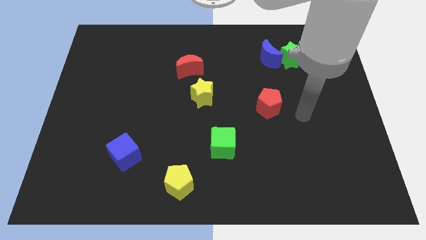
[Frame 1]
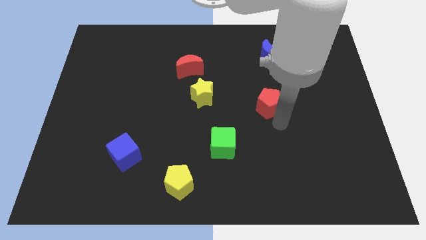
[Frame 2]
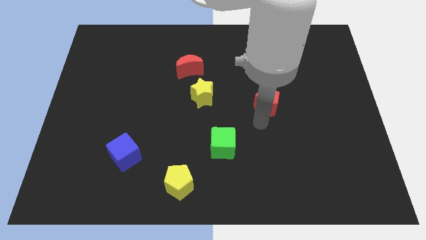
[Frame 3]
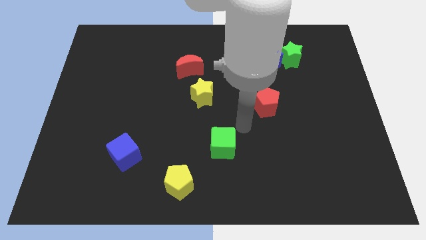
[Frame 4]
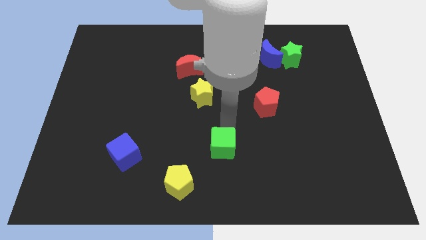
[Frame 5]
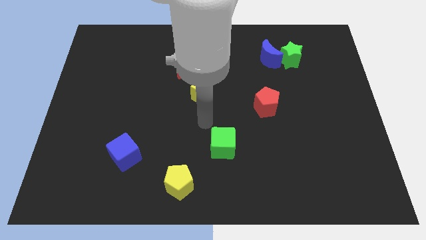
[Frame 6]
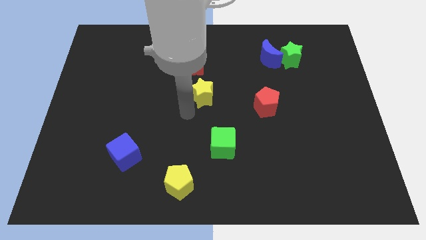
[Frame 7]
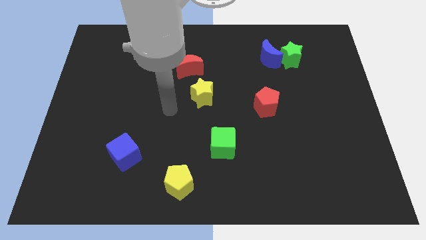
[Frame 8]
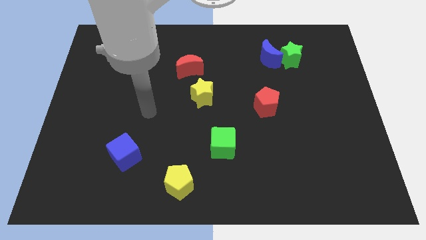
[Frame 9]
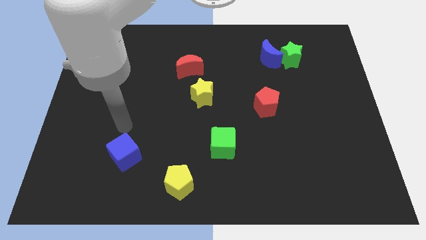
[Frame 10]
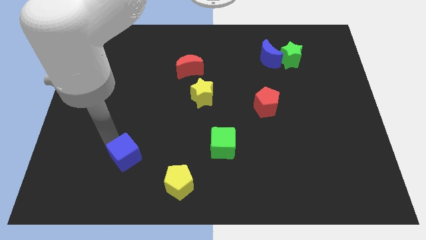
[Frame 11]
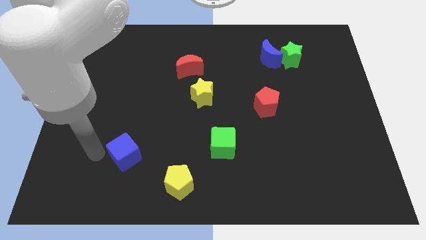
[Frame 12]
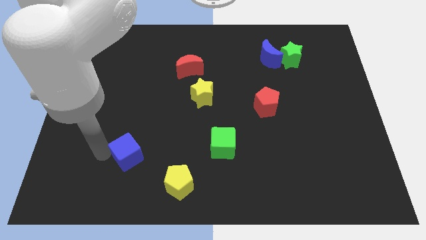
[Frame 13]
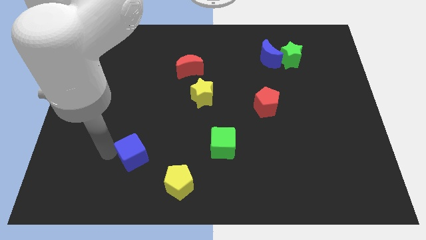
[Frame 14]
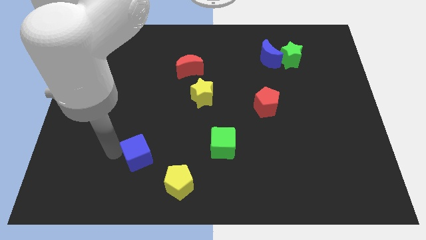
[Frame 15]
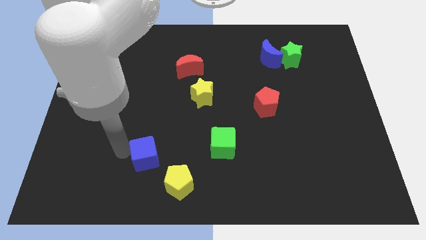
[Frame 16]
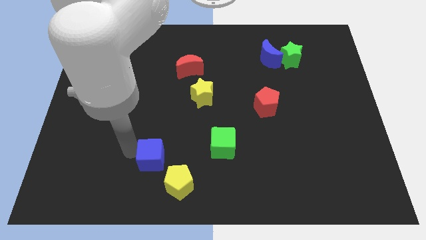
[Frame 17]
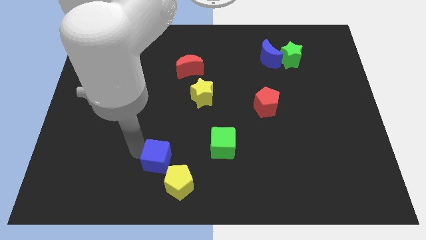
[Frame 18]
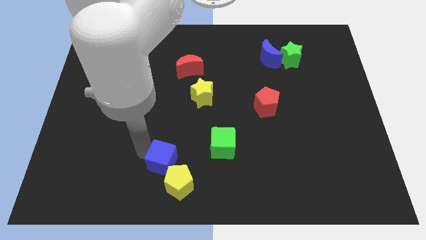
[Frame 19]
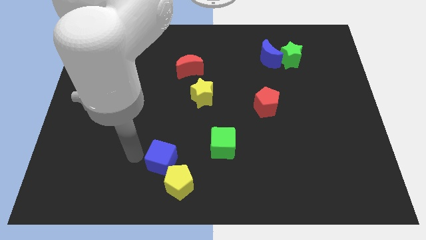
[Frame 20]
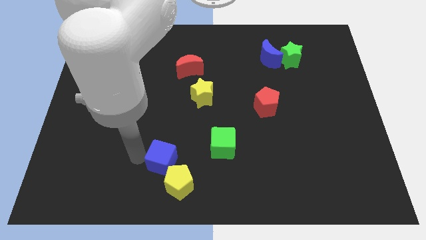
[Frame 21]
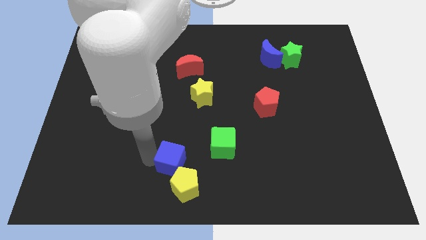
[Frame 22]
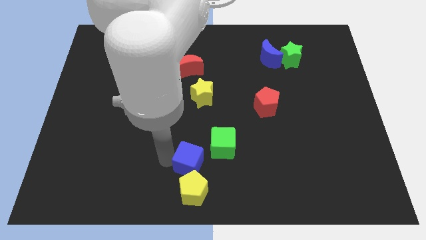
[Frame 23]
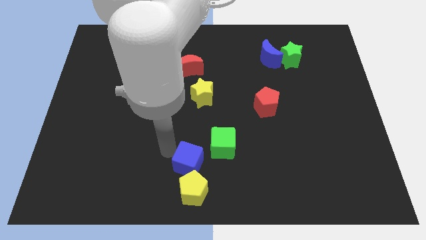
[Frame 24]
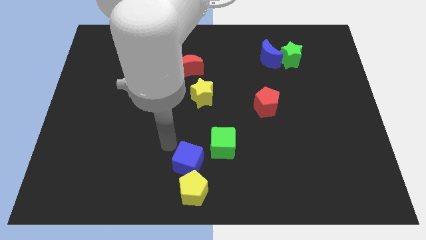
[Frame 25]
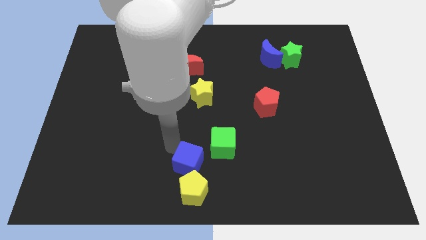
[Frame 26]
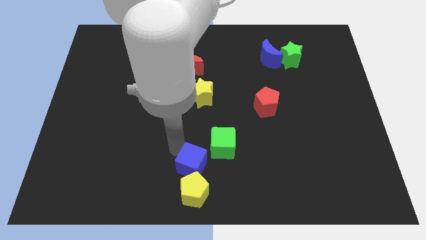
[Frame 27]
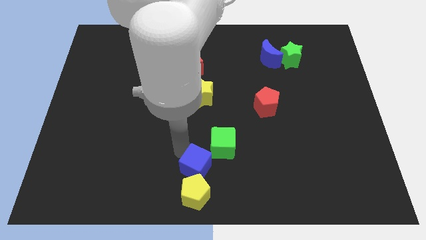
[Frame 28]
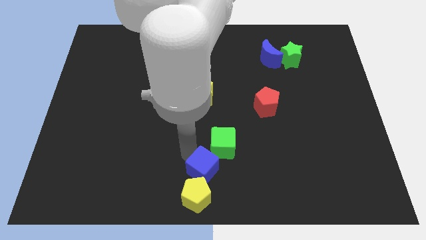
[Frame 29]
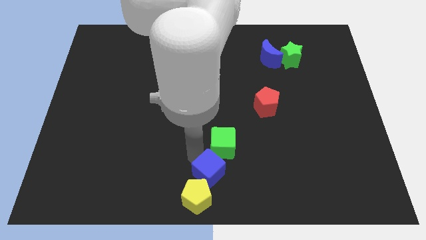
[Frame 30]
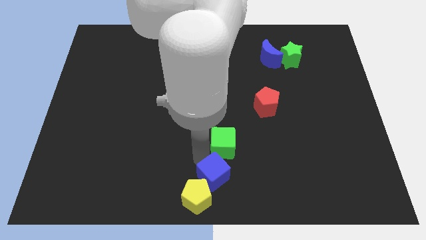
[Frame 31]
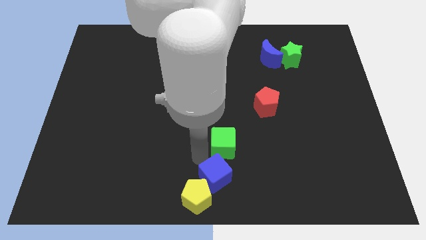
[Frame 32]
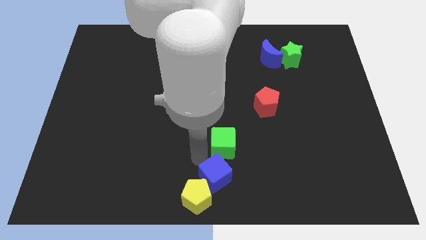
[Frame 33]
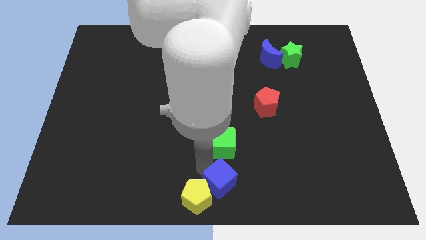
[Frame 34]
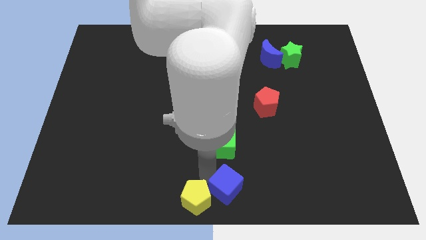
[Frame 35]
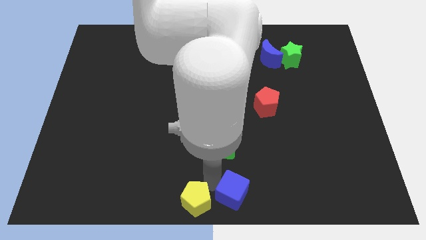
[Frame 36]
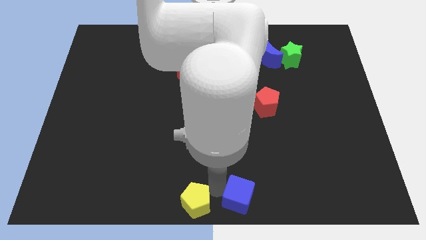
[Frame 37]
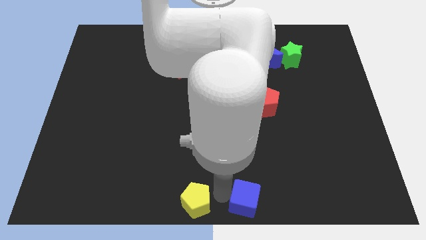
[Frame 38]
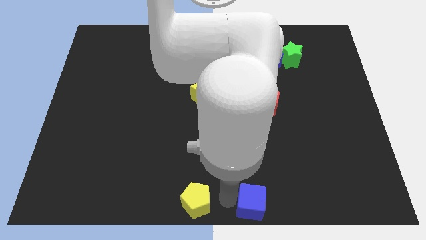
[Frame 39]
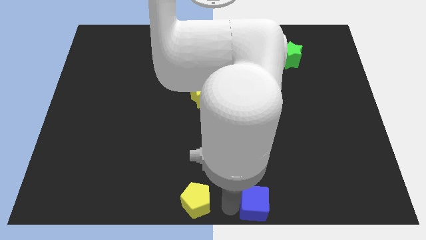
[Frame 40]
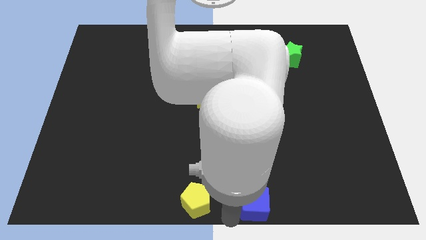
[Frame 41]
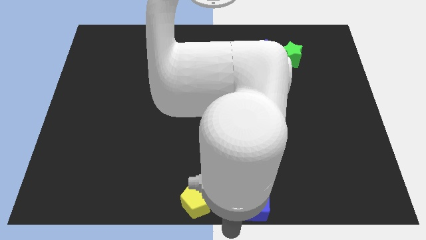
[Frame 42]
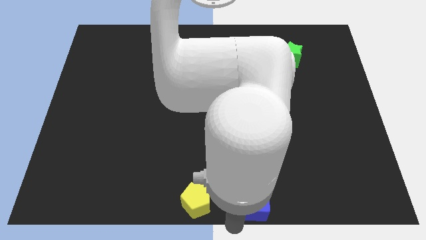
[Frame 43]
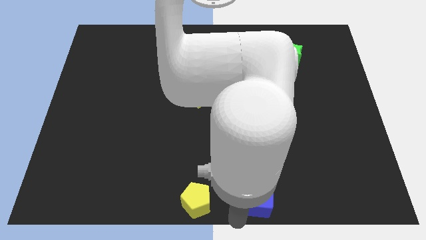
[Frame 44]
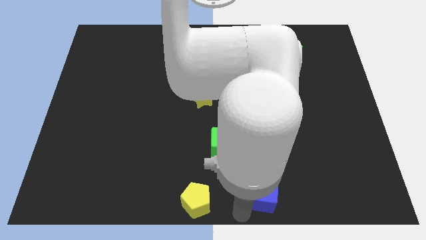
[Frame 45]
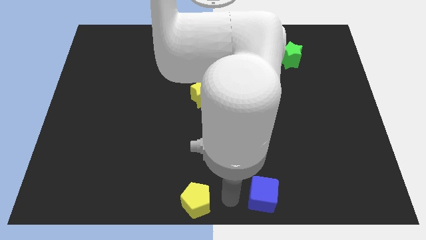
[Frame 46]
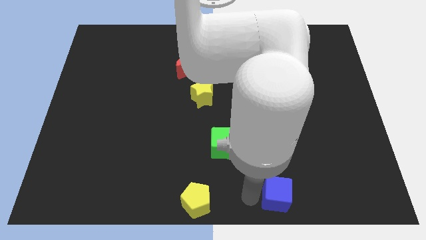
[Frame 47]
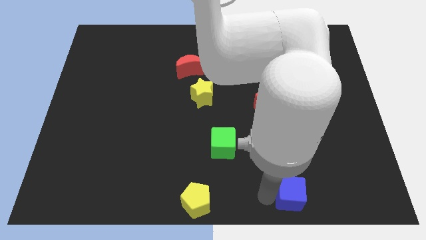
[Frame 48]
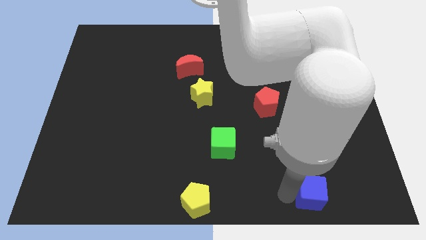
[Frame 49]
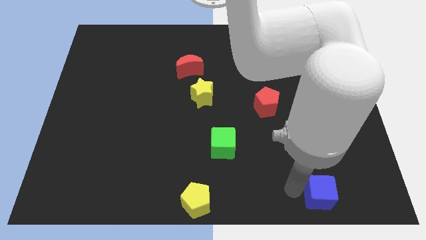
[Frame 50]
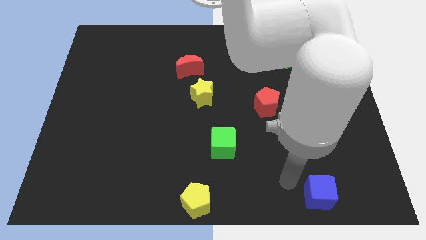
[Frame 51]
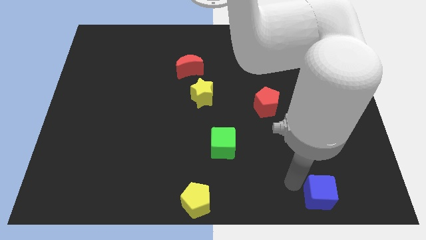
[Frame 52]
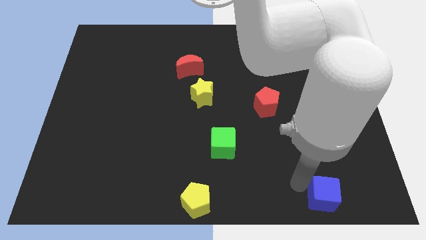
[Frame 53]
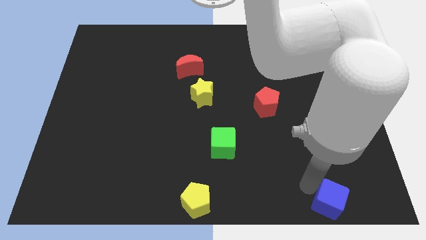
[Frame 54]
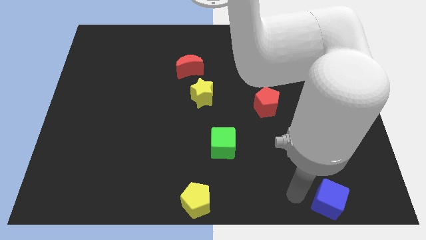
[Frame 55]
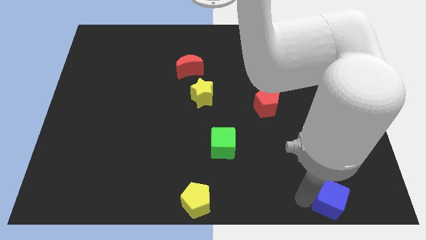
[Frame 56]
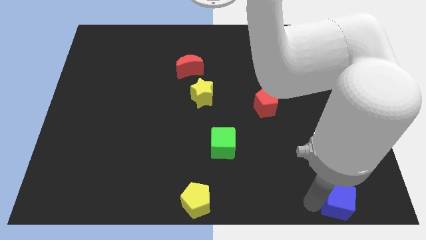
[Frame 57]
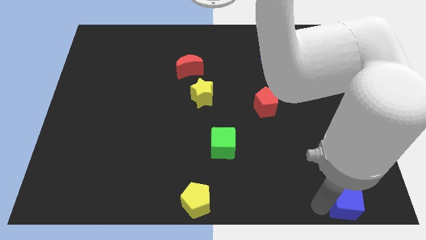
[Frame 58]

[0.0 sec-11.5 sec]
push the blue cube to the bottom right

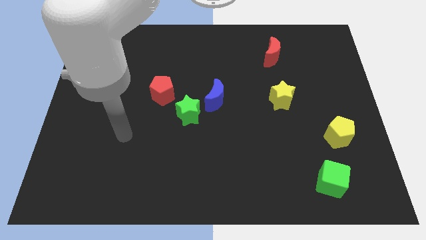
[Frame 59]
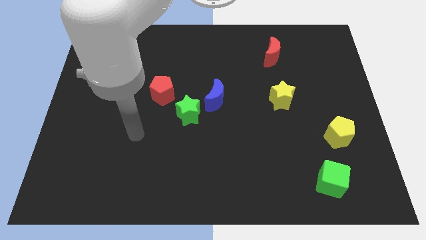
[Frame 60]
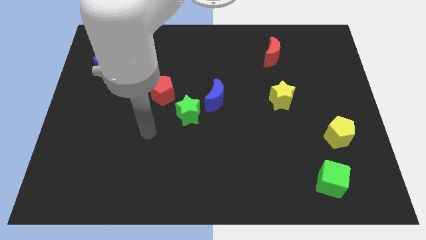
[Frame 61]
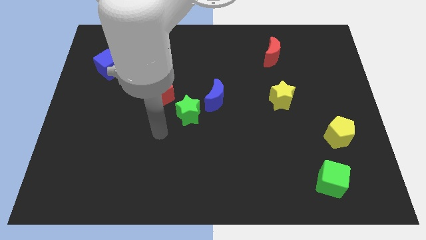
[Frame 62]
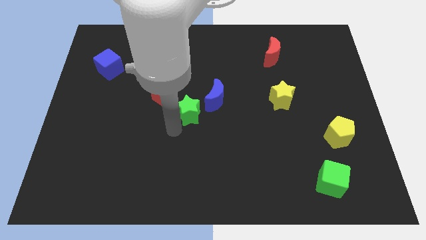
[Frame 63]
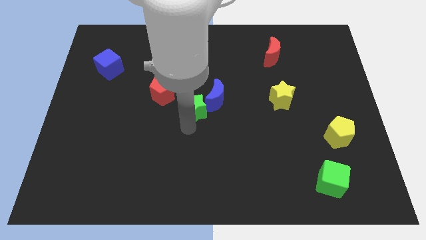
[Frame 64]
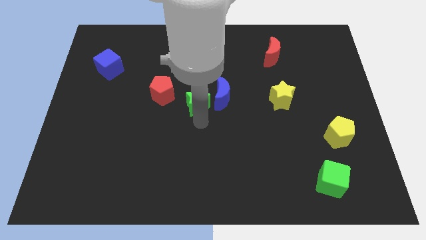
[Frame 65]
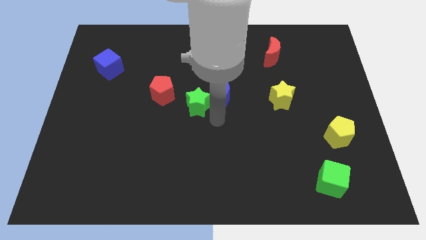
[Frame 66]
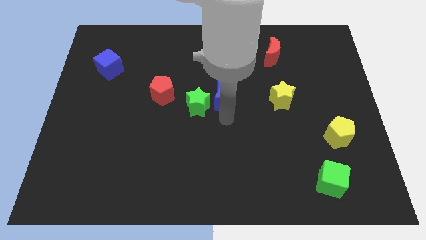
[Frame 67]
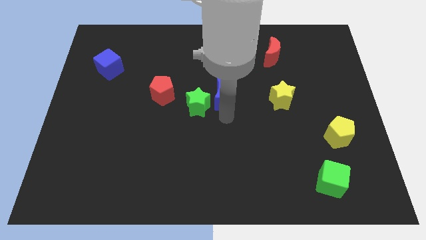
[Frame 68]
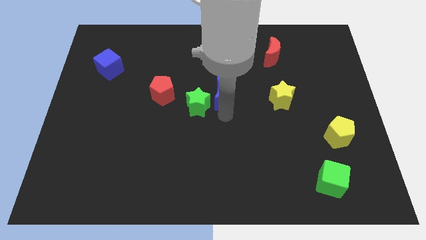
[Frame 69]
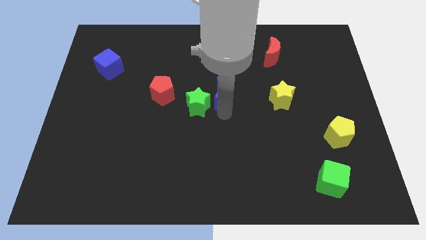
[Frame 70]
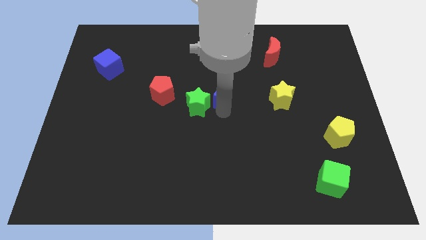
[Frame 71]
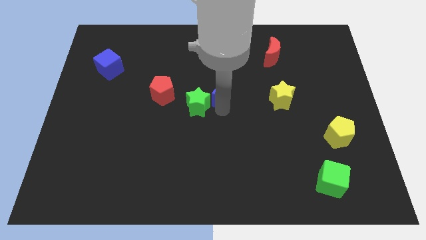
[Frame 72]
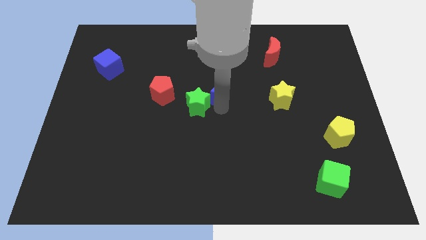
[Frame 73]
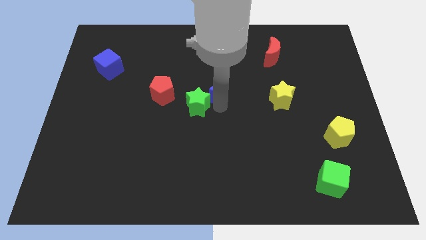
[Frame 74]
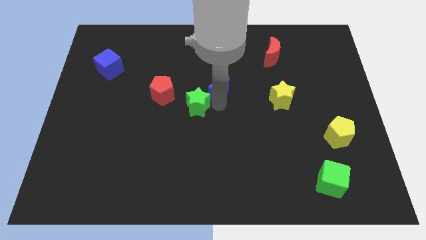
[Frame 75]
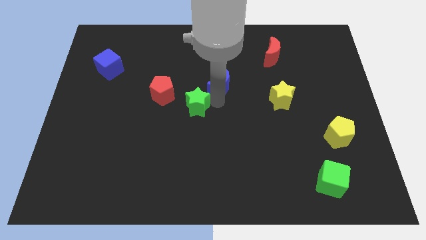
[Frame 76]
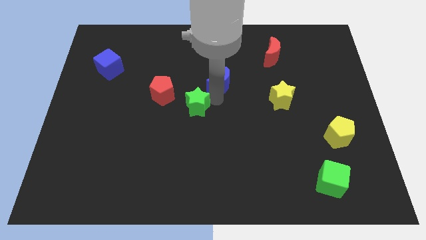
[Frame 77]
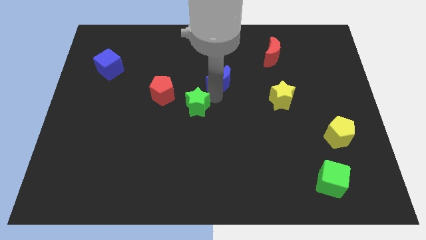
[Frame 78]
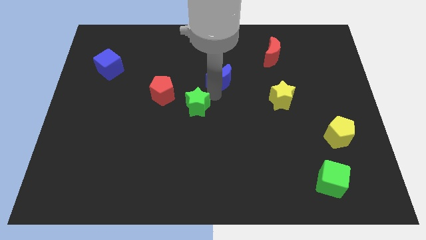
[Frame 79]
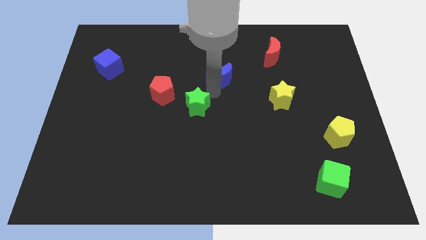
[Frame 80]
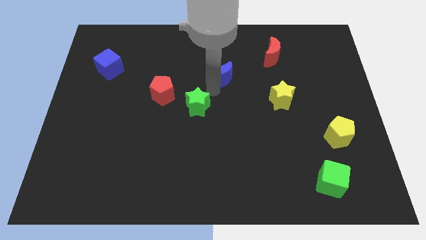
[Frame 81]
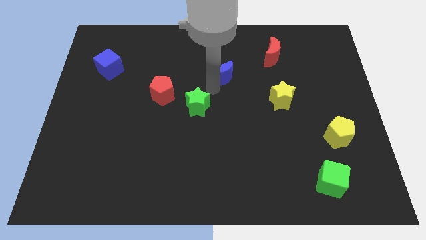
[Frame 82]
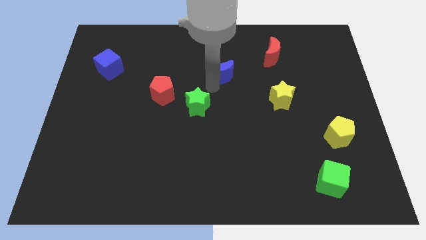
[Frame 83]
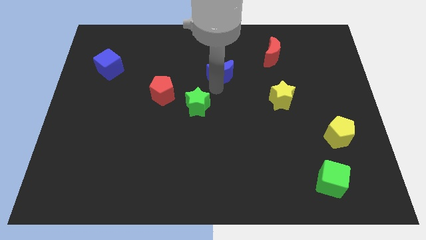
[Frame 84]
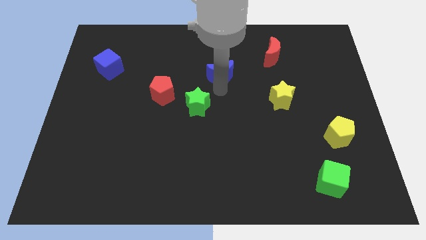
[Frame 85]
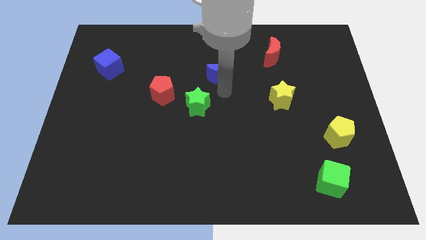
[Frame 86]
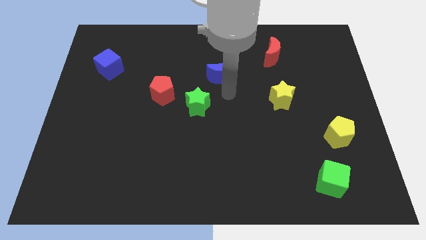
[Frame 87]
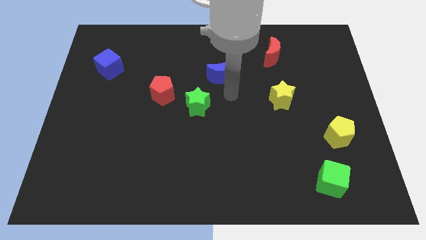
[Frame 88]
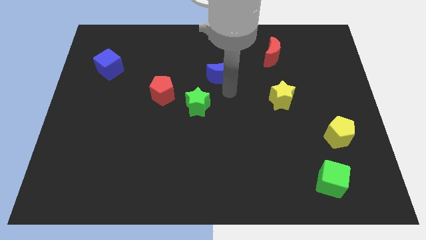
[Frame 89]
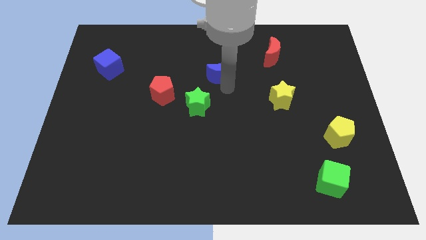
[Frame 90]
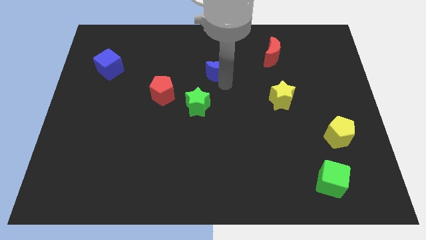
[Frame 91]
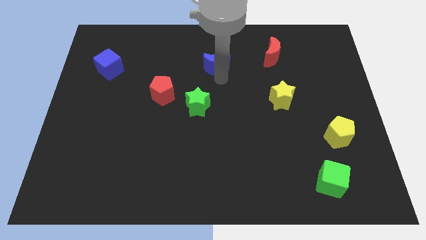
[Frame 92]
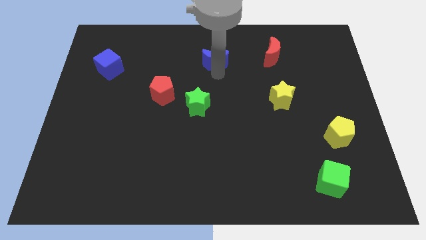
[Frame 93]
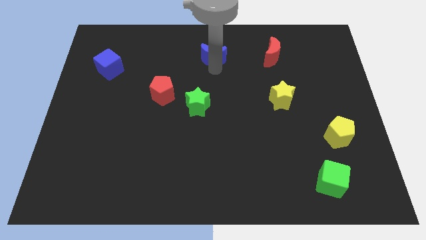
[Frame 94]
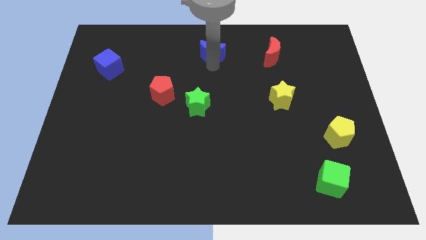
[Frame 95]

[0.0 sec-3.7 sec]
push the blue moon to the top side
